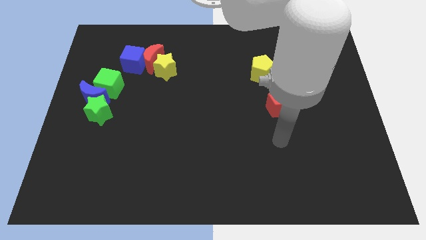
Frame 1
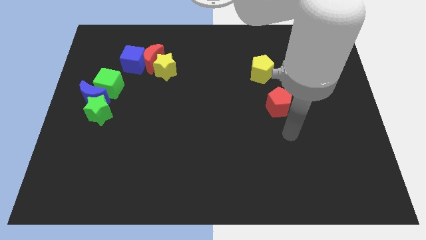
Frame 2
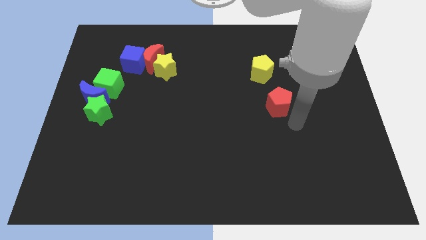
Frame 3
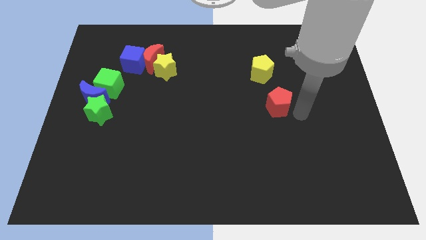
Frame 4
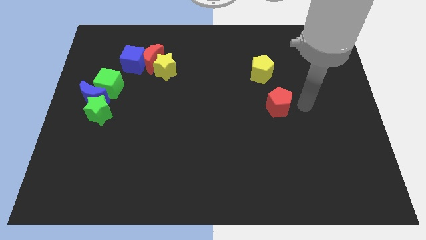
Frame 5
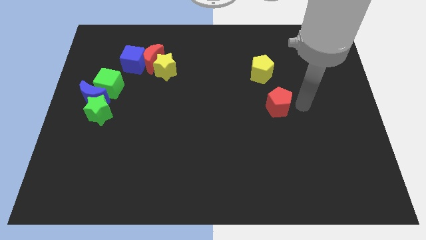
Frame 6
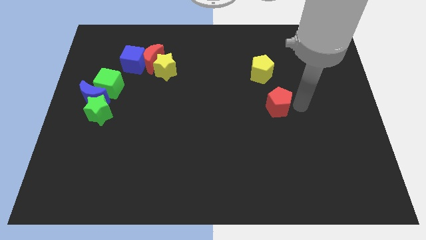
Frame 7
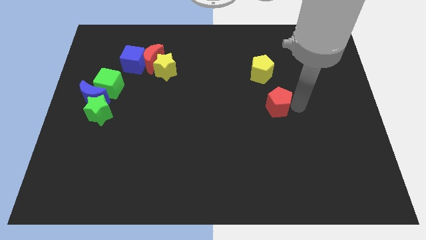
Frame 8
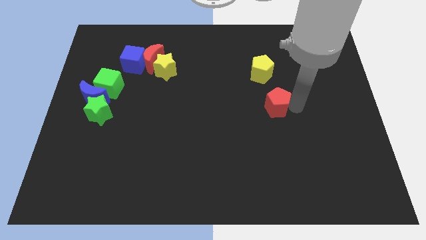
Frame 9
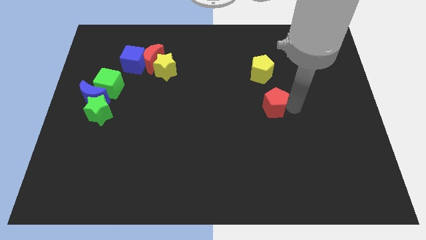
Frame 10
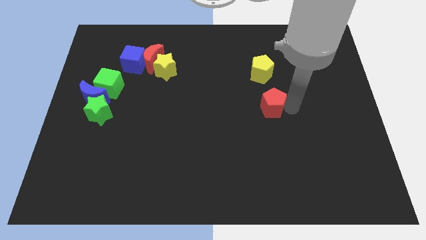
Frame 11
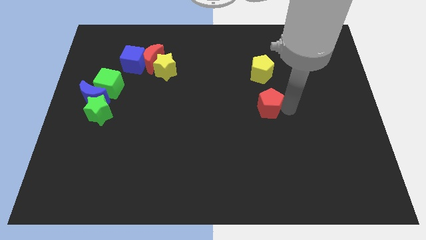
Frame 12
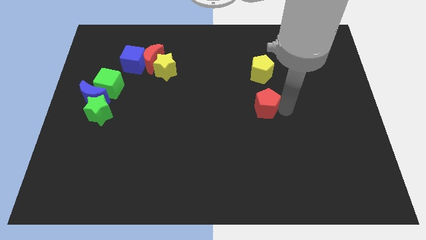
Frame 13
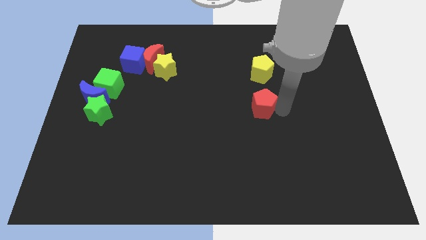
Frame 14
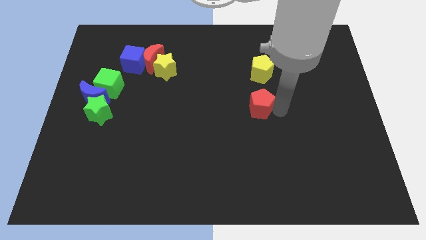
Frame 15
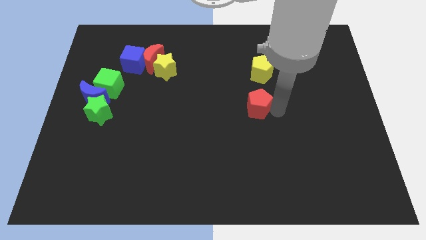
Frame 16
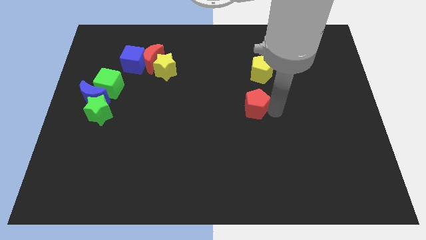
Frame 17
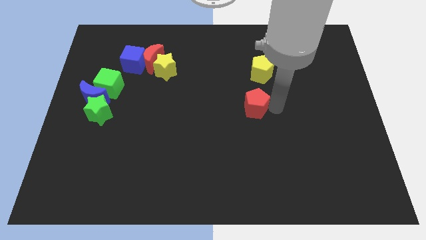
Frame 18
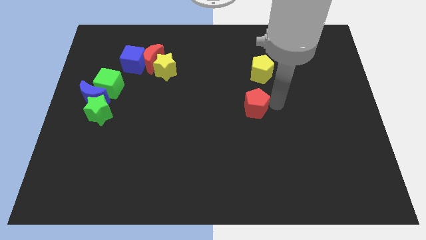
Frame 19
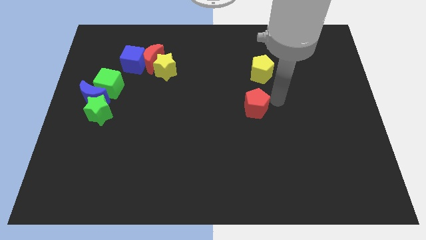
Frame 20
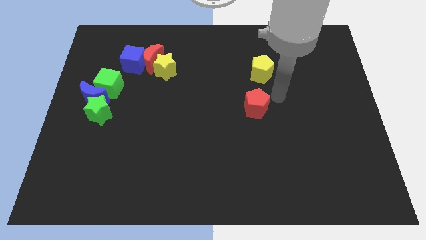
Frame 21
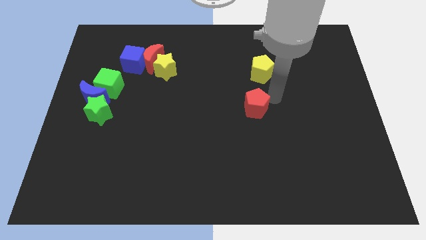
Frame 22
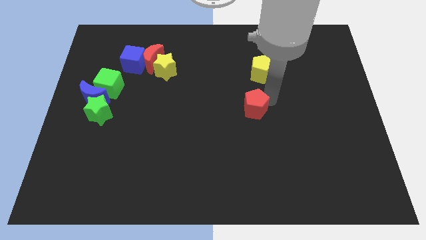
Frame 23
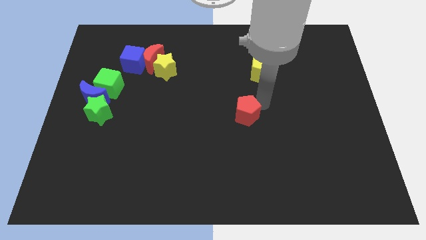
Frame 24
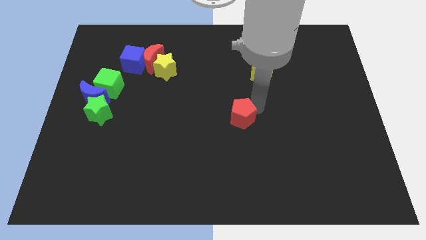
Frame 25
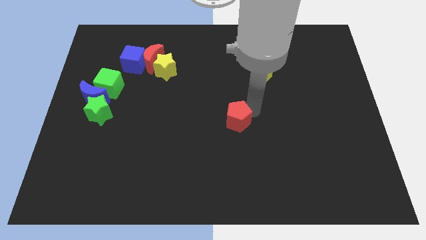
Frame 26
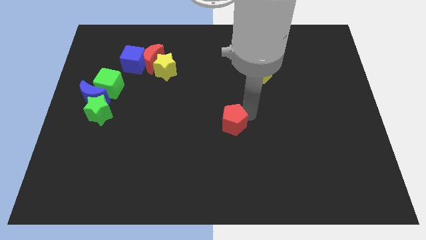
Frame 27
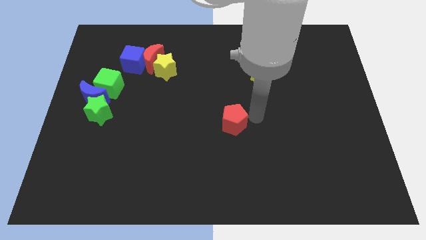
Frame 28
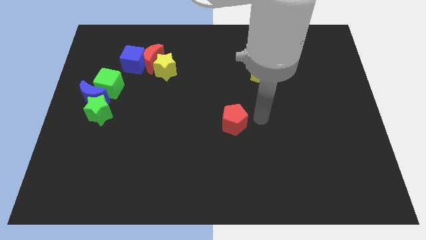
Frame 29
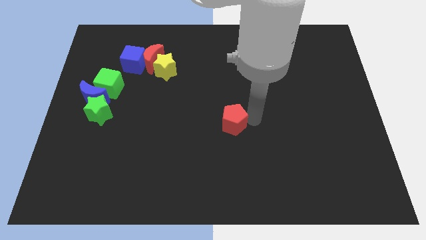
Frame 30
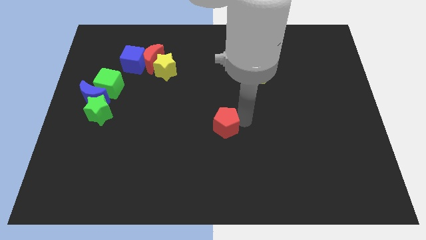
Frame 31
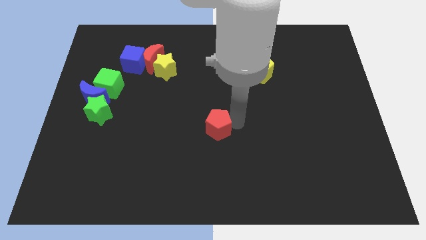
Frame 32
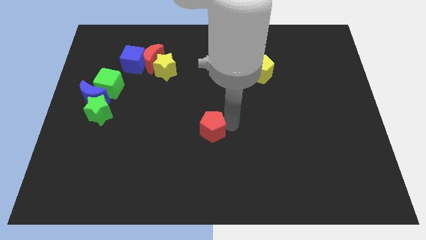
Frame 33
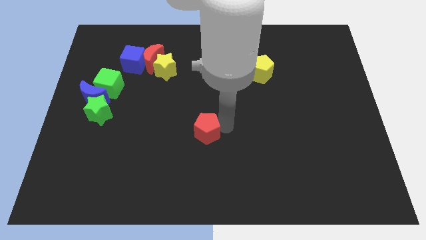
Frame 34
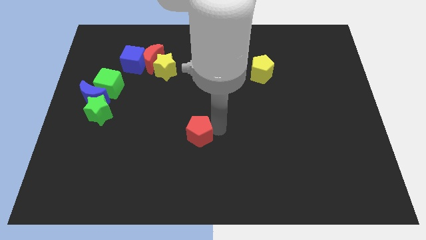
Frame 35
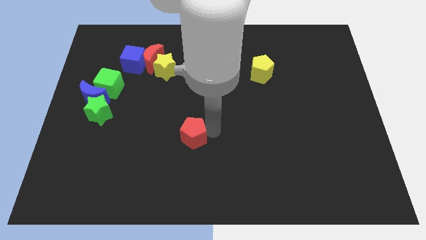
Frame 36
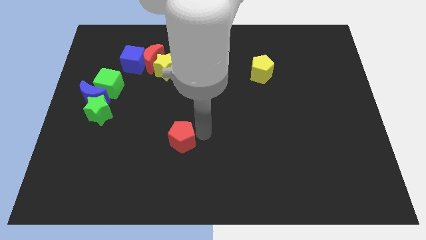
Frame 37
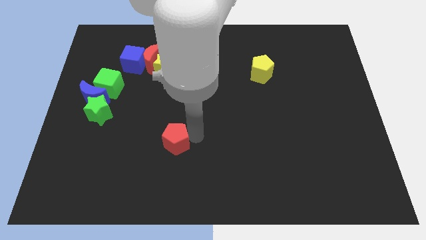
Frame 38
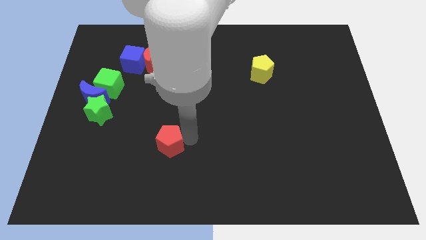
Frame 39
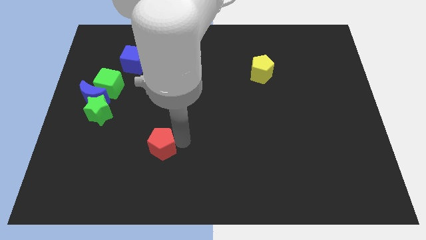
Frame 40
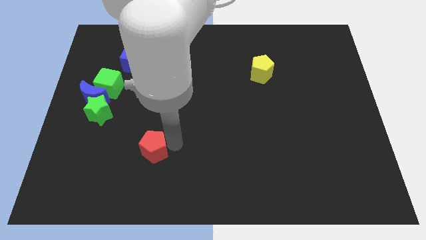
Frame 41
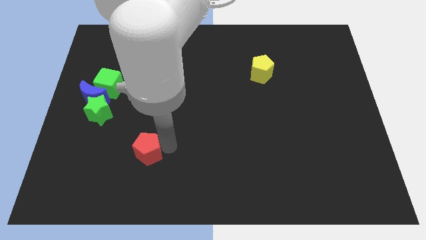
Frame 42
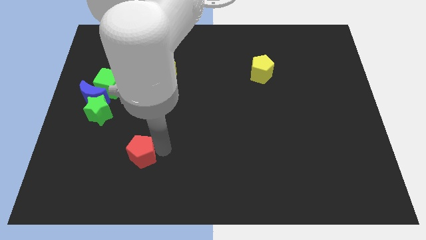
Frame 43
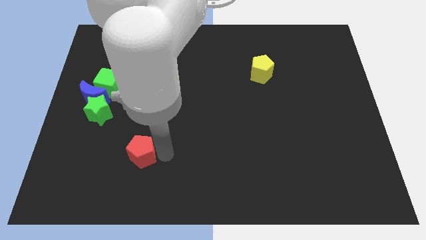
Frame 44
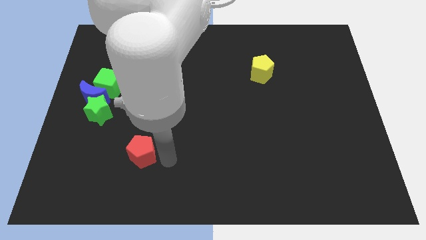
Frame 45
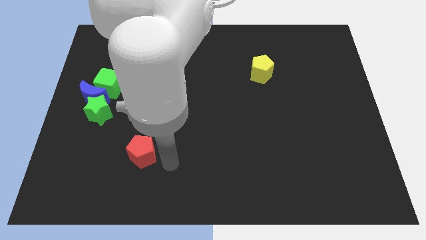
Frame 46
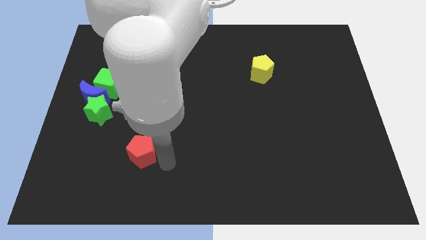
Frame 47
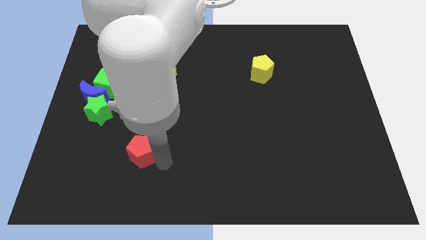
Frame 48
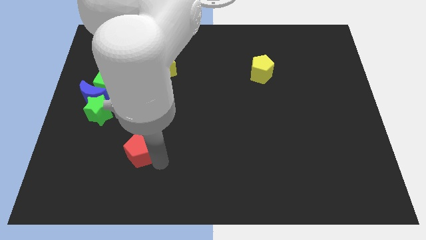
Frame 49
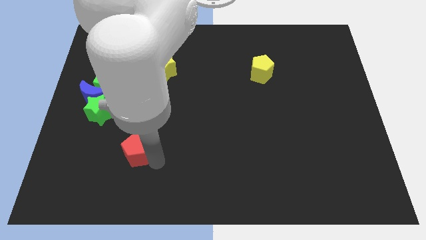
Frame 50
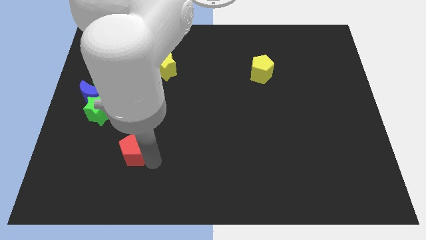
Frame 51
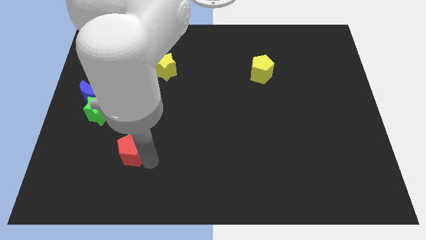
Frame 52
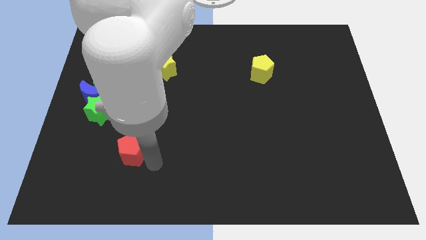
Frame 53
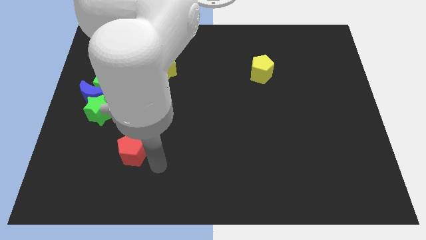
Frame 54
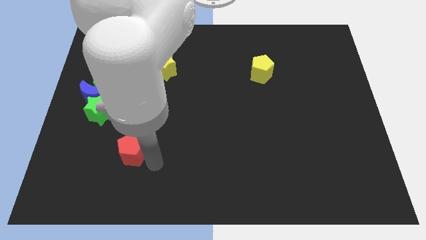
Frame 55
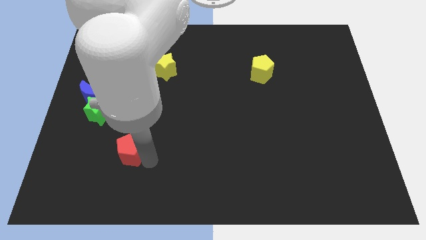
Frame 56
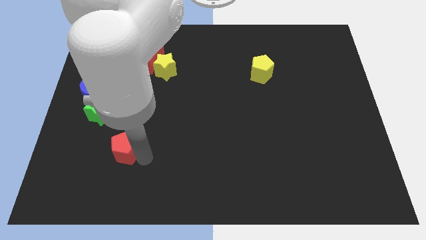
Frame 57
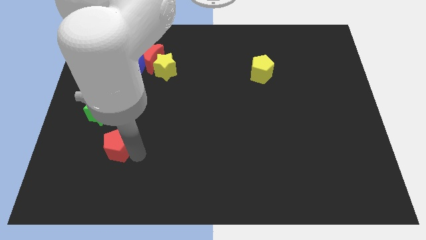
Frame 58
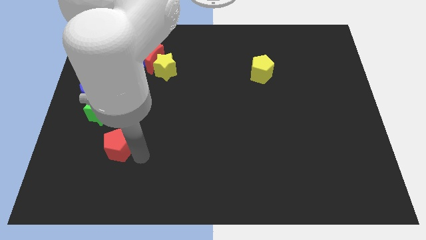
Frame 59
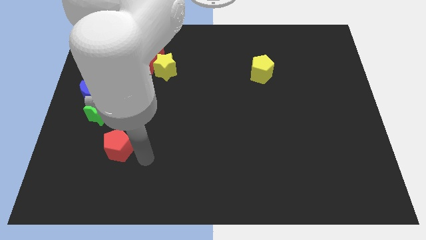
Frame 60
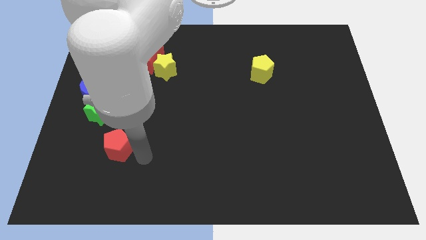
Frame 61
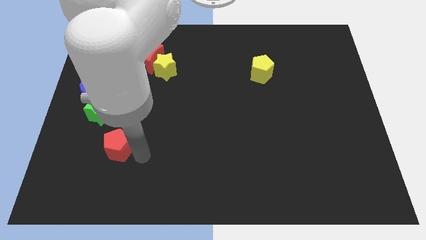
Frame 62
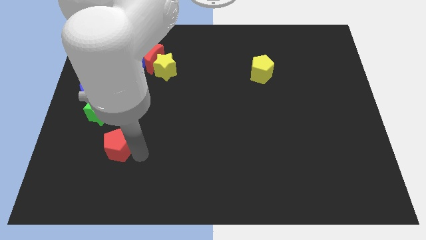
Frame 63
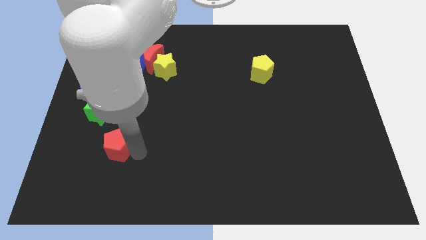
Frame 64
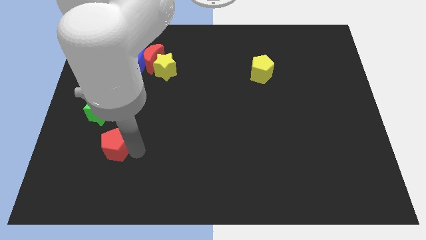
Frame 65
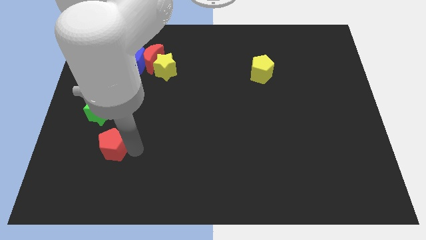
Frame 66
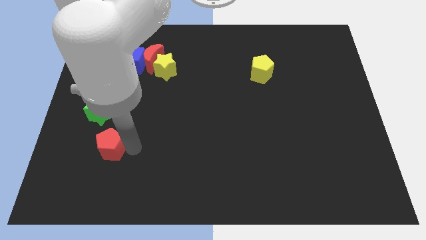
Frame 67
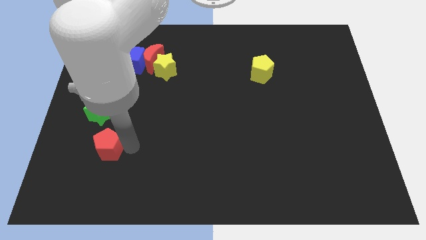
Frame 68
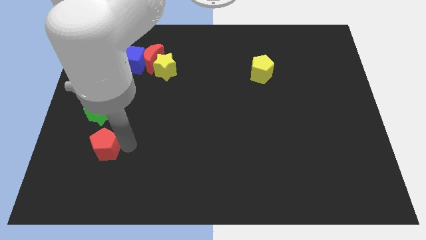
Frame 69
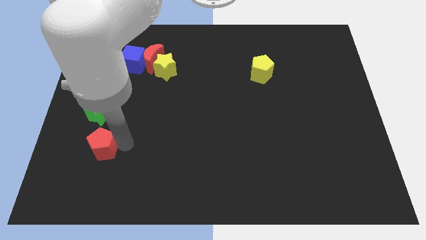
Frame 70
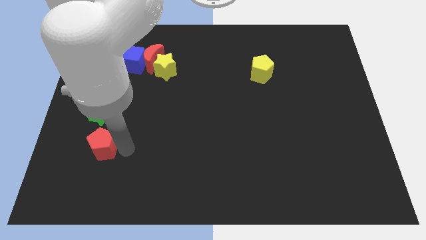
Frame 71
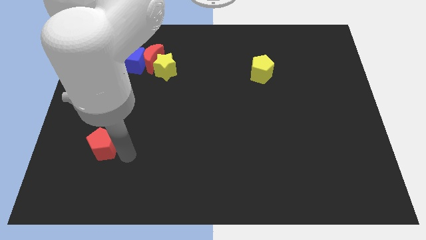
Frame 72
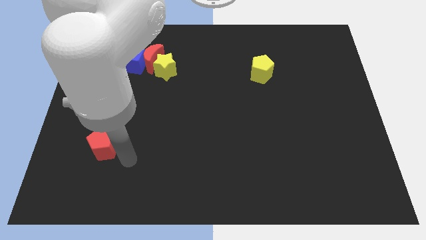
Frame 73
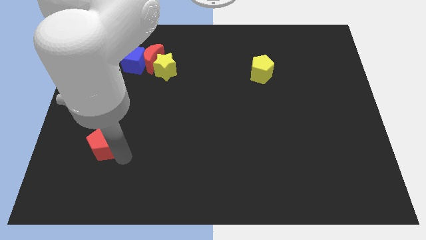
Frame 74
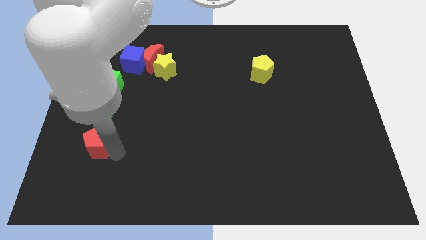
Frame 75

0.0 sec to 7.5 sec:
slide the red pentagon to the bottom side of the blue moon
